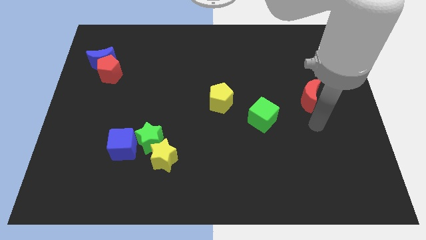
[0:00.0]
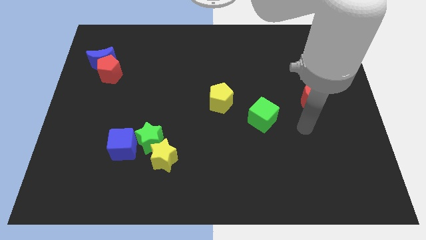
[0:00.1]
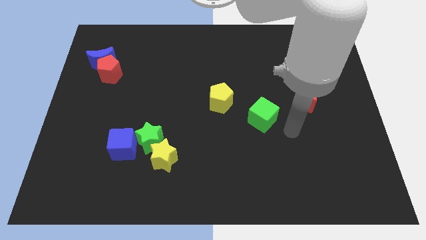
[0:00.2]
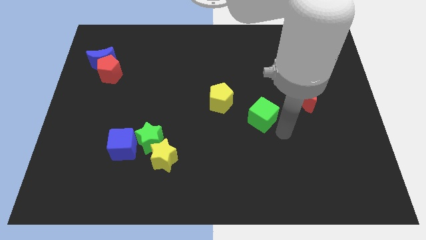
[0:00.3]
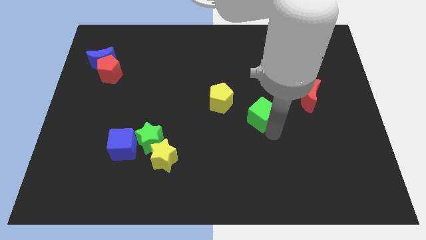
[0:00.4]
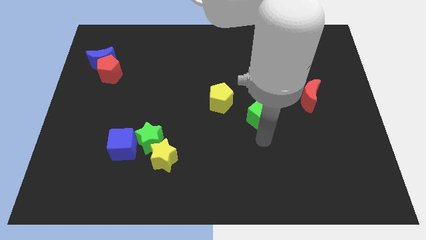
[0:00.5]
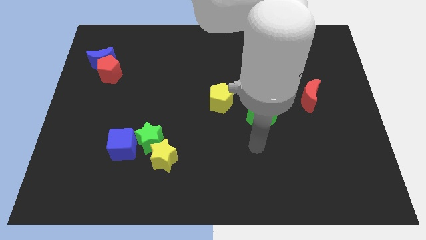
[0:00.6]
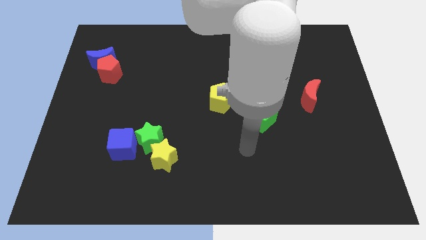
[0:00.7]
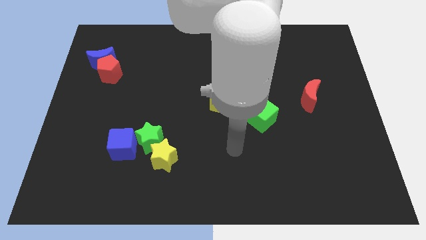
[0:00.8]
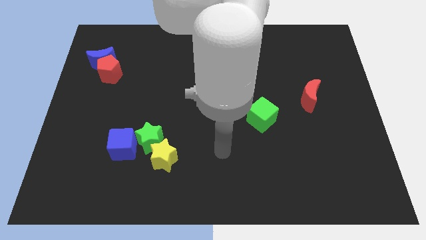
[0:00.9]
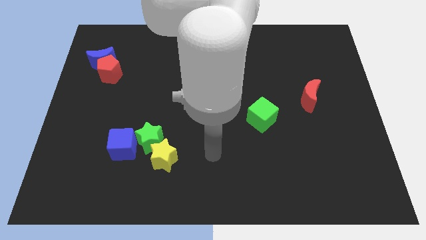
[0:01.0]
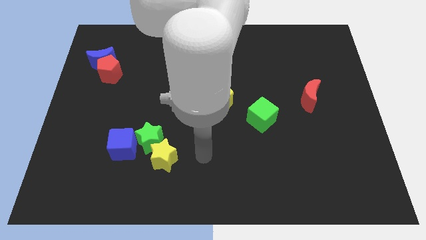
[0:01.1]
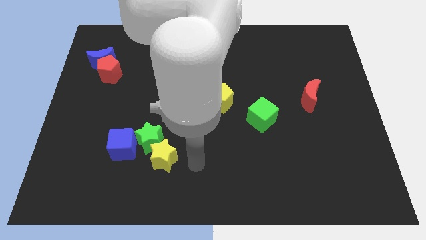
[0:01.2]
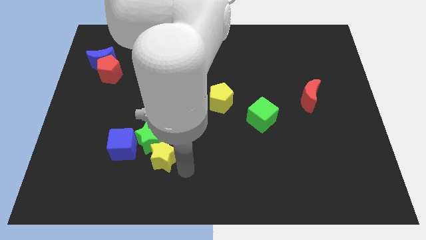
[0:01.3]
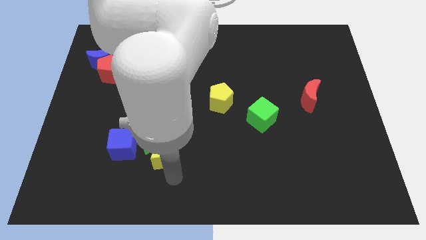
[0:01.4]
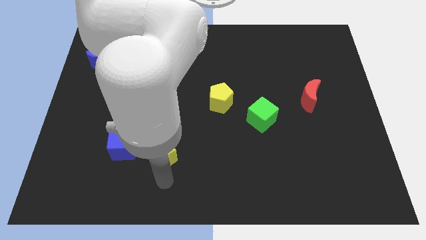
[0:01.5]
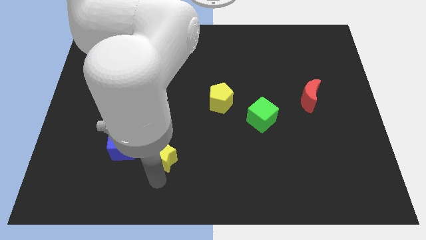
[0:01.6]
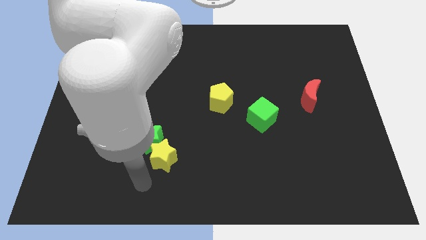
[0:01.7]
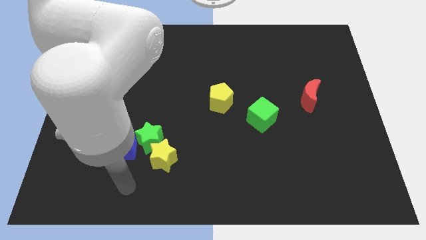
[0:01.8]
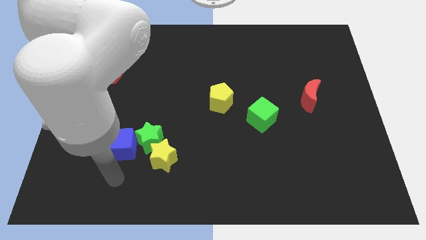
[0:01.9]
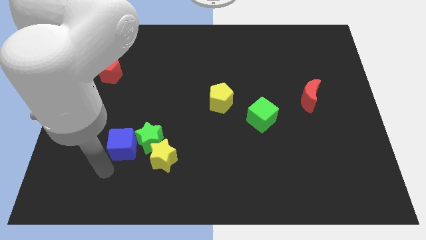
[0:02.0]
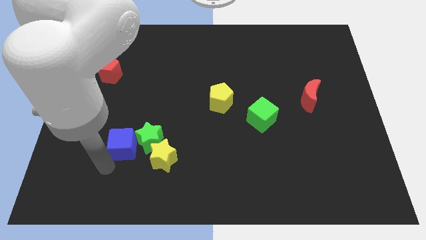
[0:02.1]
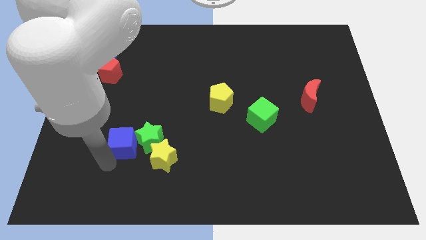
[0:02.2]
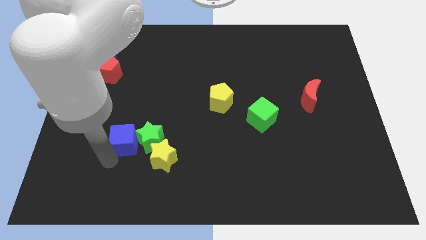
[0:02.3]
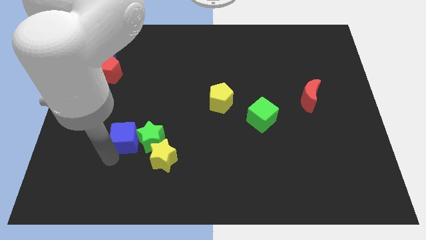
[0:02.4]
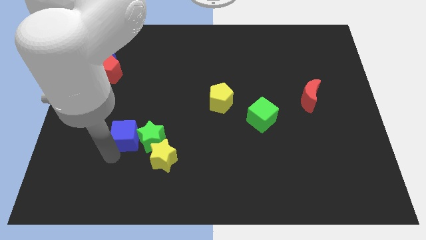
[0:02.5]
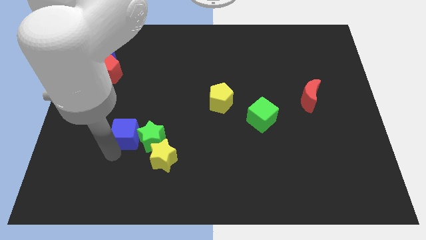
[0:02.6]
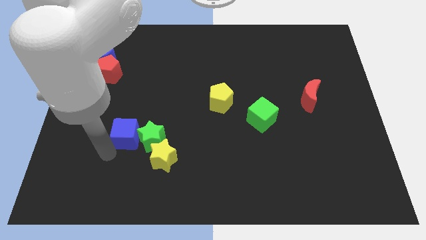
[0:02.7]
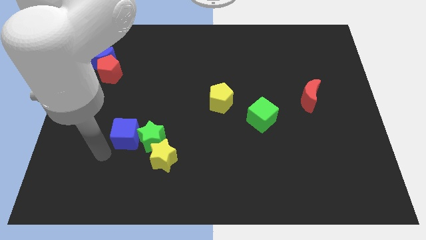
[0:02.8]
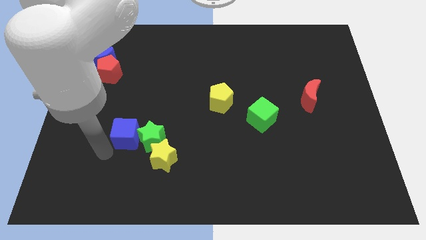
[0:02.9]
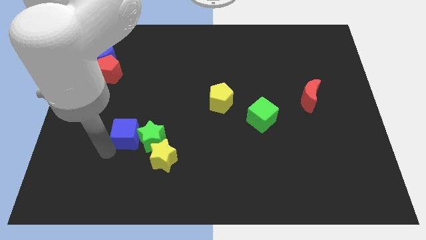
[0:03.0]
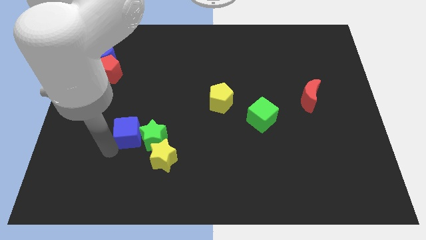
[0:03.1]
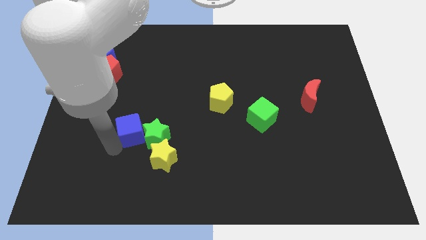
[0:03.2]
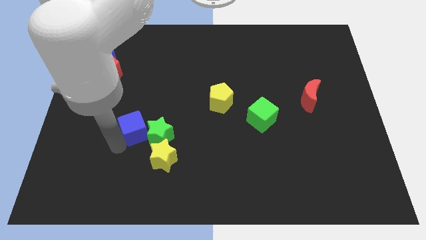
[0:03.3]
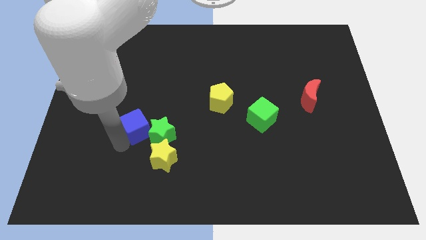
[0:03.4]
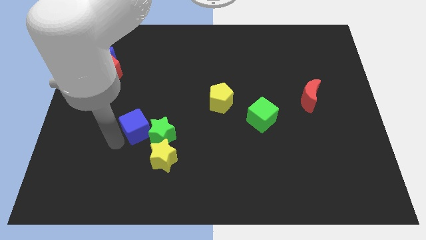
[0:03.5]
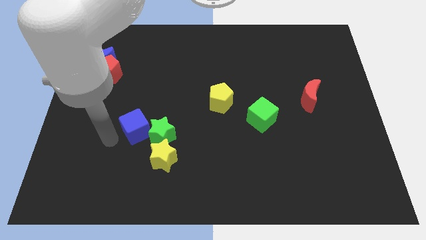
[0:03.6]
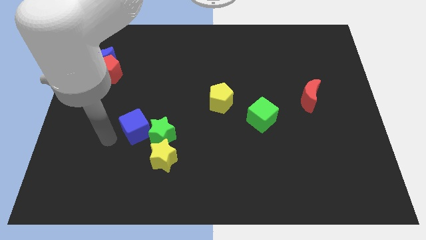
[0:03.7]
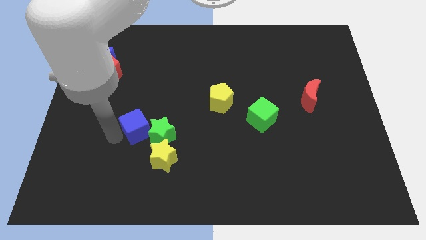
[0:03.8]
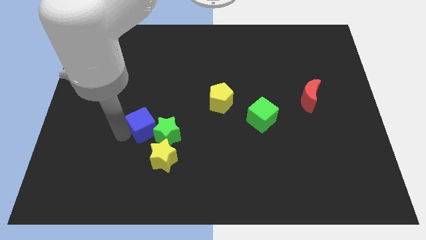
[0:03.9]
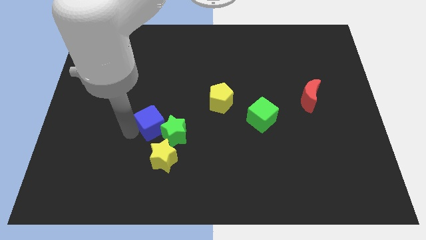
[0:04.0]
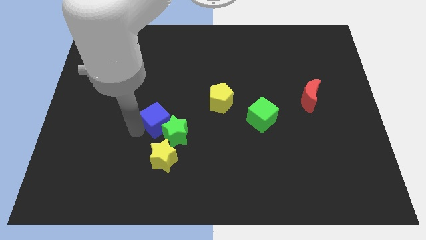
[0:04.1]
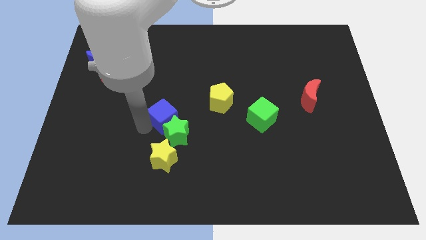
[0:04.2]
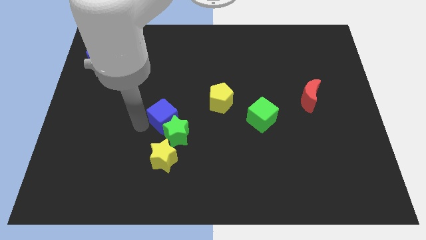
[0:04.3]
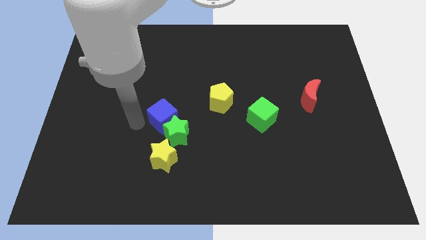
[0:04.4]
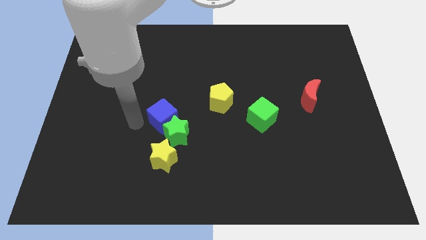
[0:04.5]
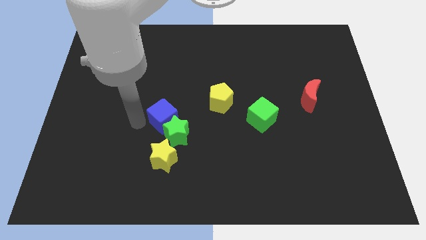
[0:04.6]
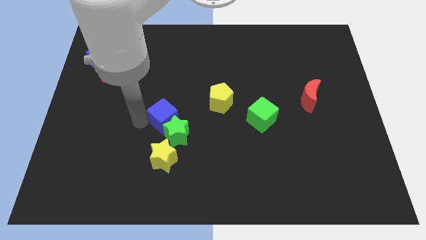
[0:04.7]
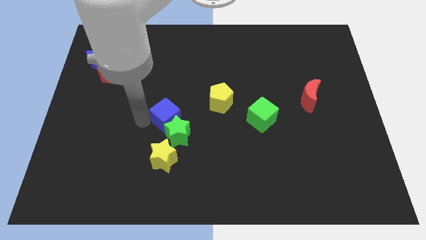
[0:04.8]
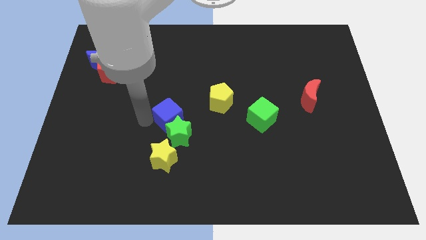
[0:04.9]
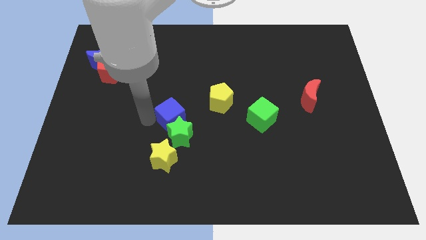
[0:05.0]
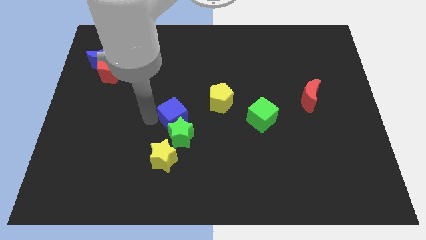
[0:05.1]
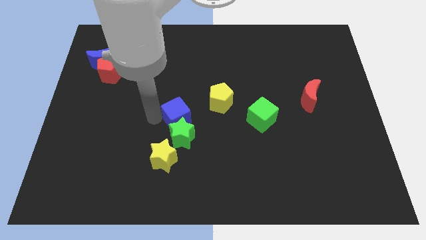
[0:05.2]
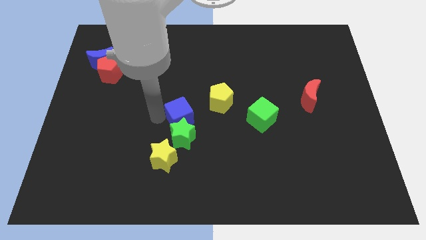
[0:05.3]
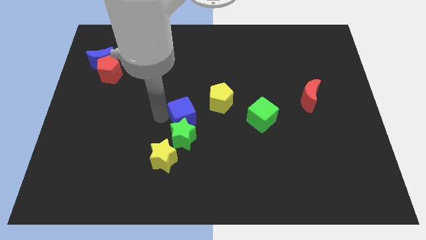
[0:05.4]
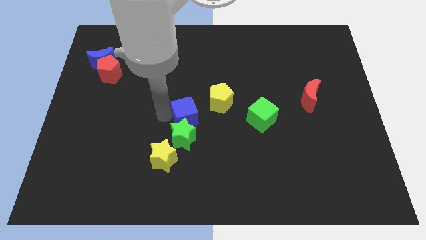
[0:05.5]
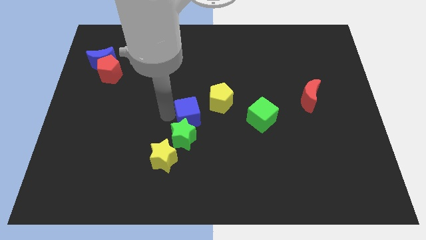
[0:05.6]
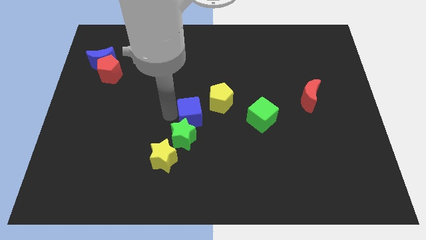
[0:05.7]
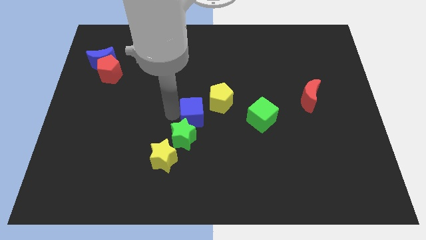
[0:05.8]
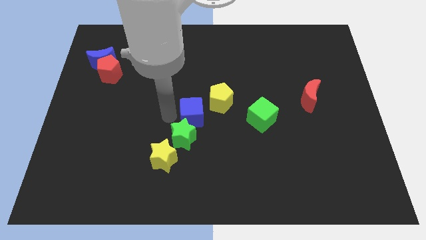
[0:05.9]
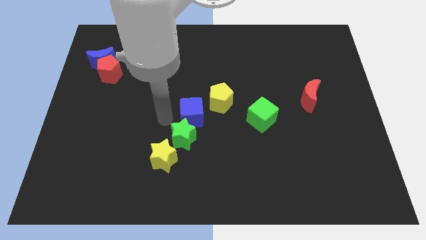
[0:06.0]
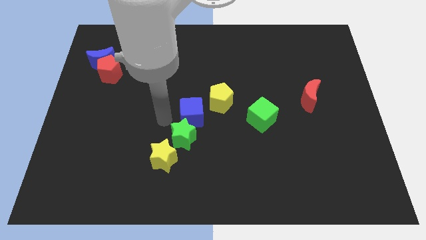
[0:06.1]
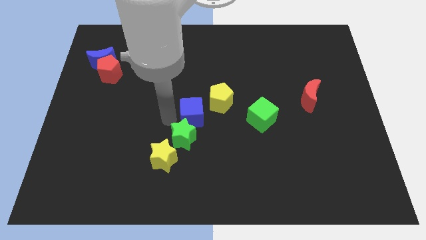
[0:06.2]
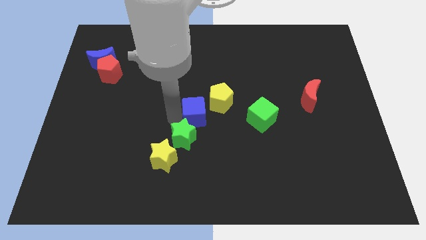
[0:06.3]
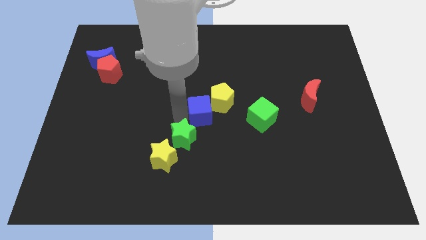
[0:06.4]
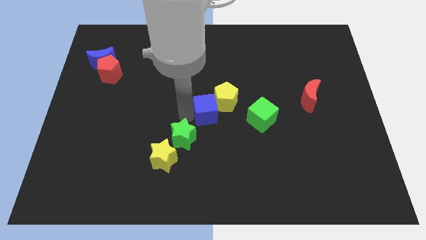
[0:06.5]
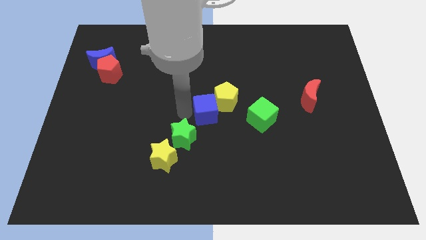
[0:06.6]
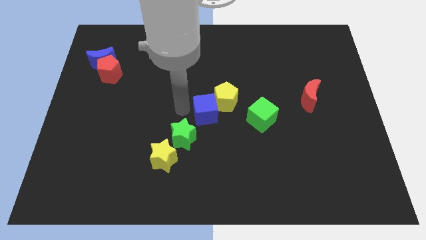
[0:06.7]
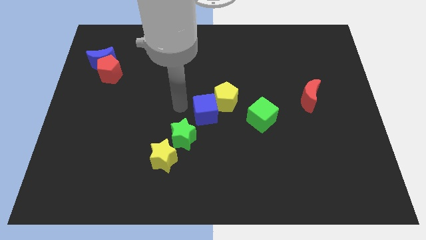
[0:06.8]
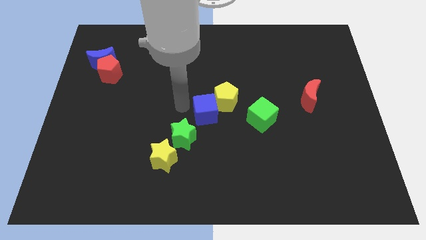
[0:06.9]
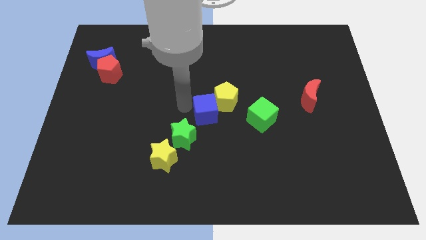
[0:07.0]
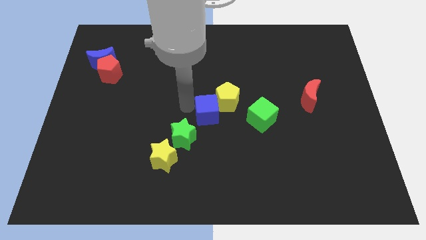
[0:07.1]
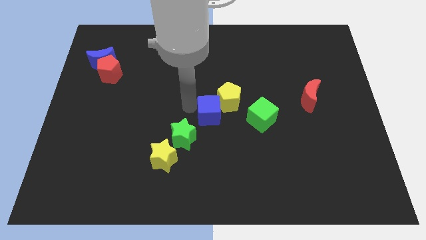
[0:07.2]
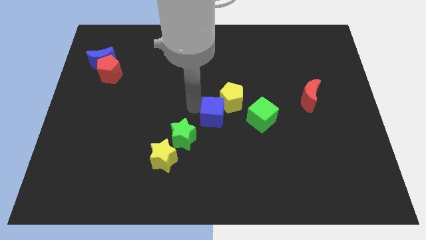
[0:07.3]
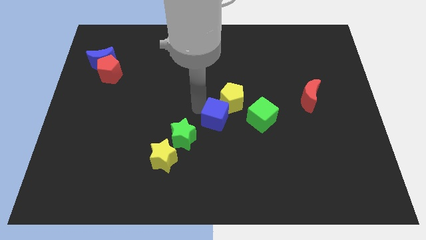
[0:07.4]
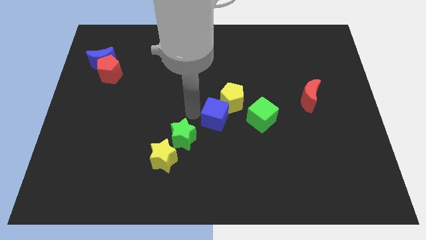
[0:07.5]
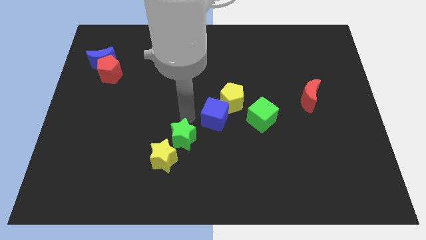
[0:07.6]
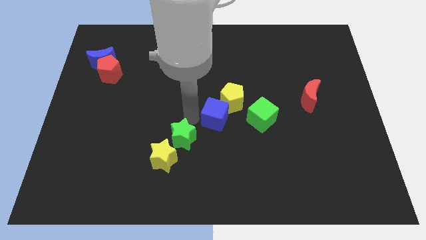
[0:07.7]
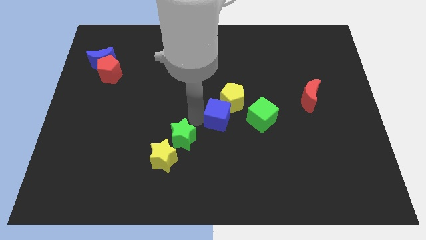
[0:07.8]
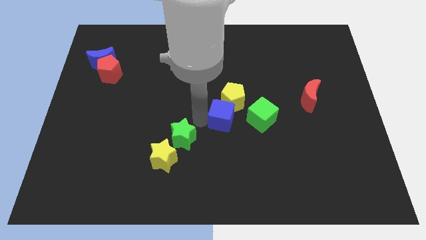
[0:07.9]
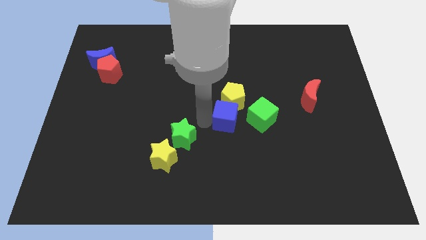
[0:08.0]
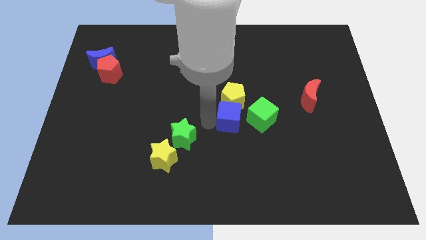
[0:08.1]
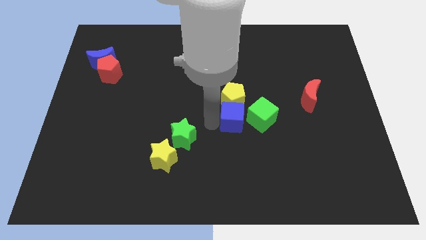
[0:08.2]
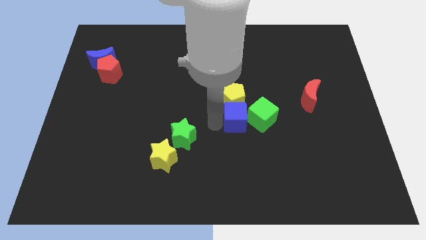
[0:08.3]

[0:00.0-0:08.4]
slide the blue cube towards the green cube
